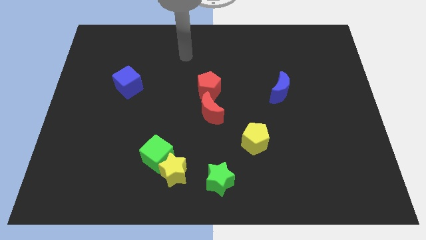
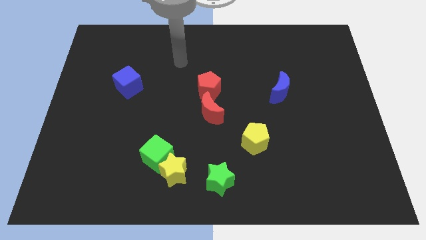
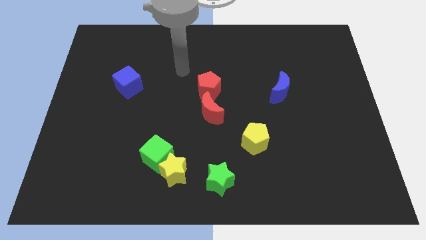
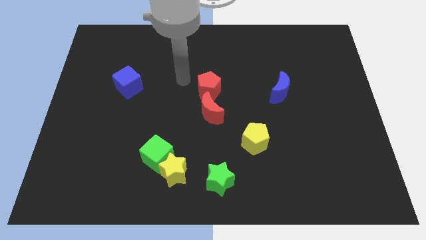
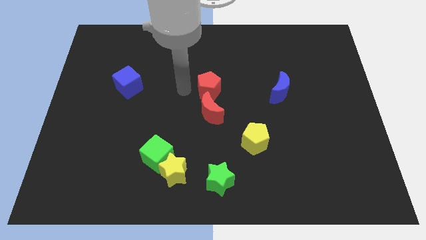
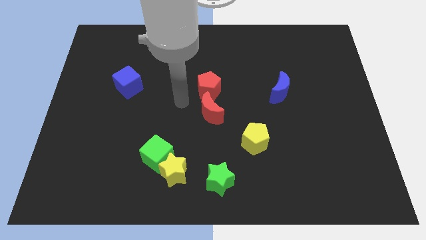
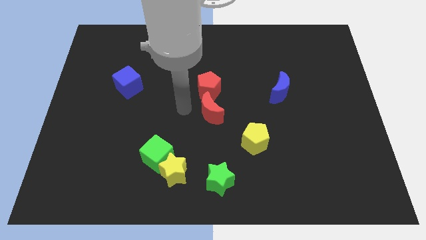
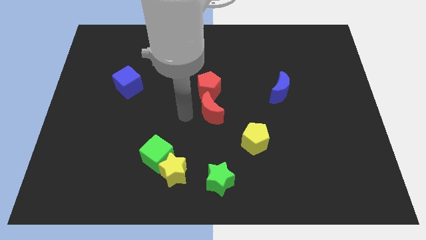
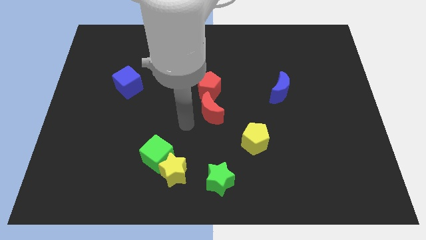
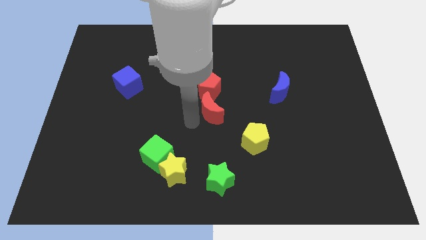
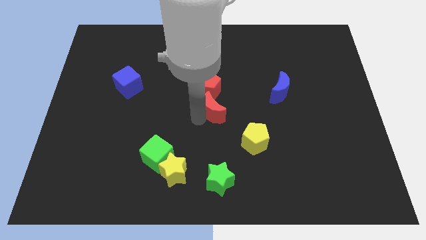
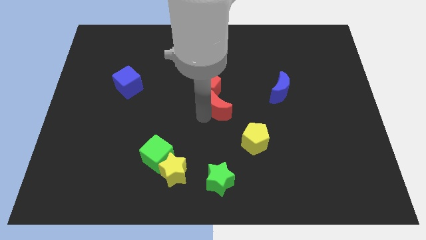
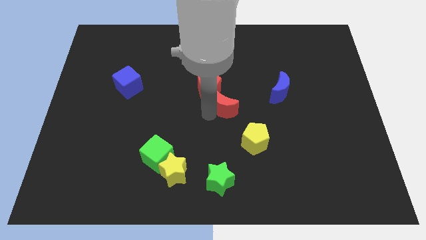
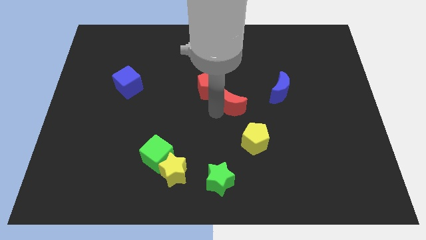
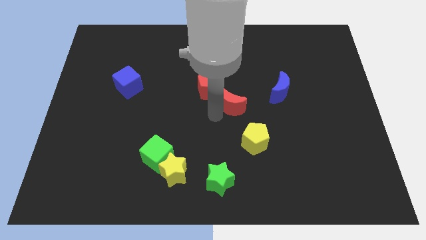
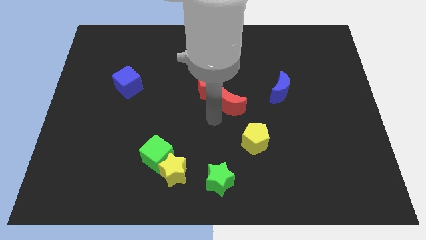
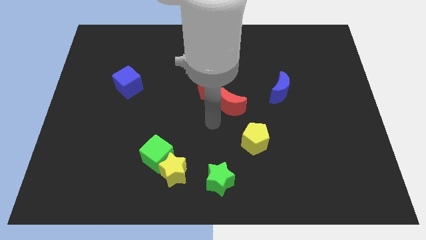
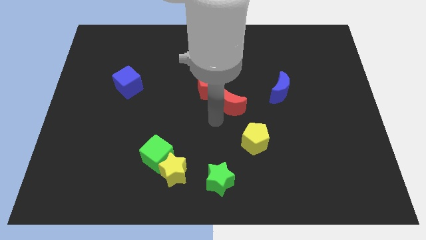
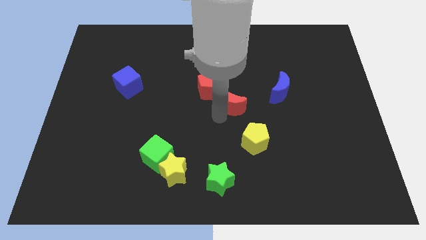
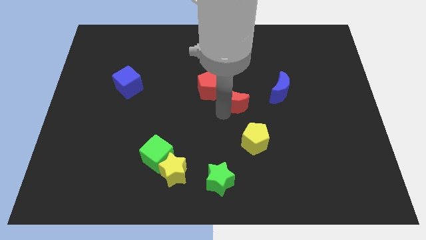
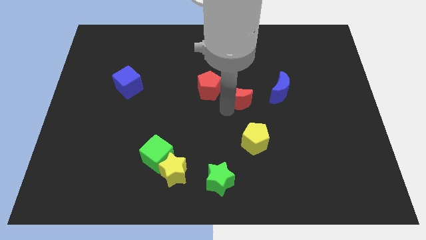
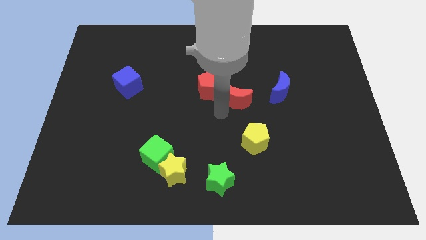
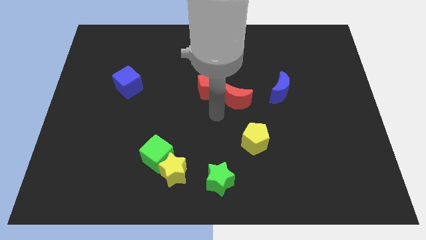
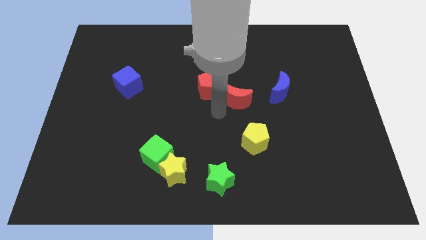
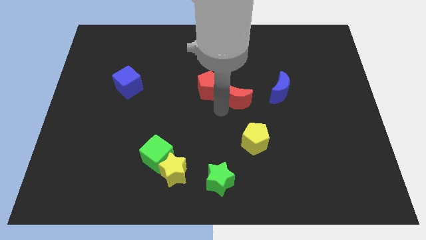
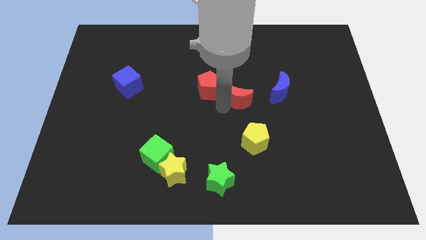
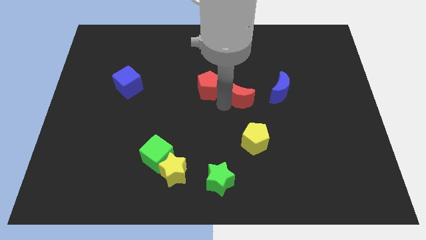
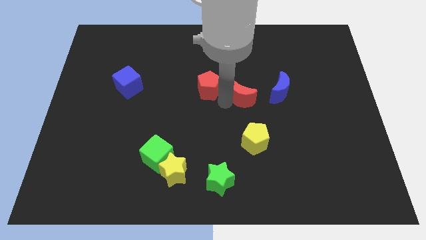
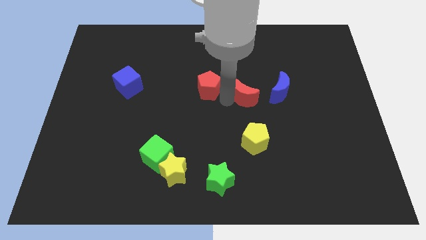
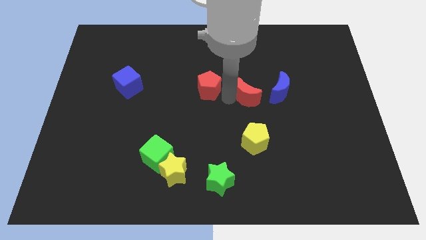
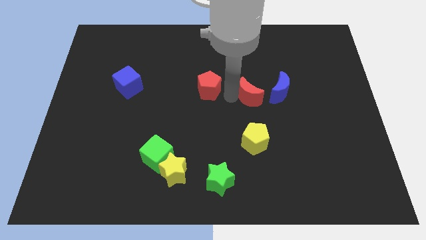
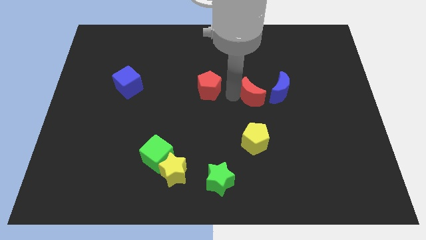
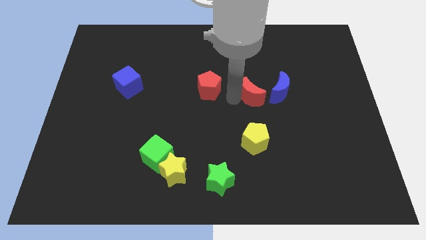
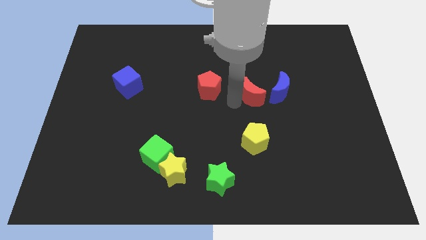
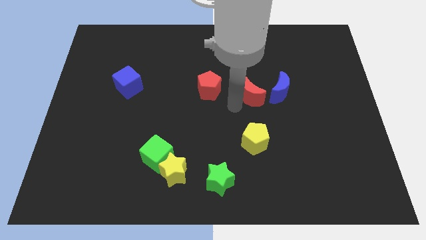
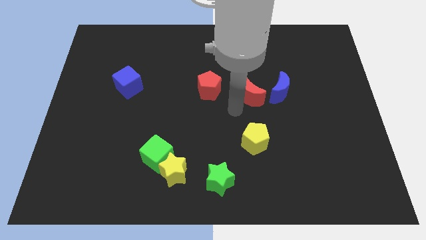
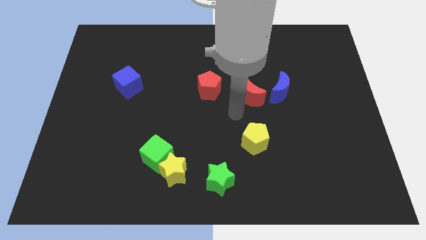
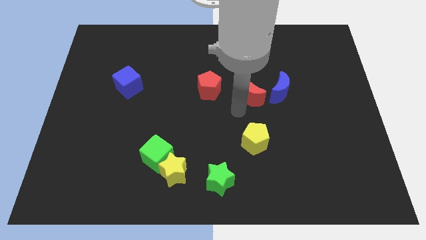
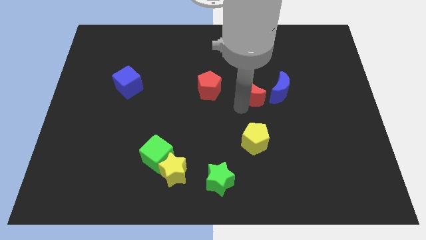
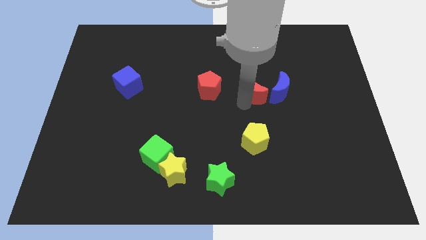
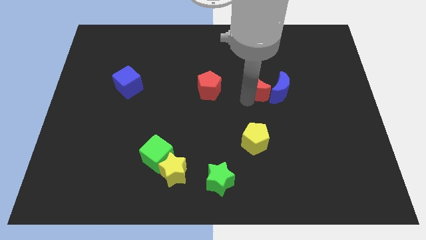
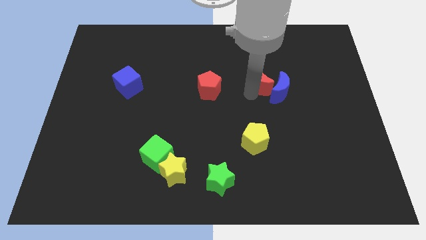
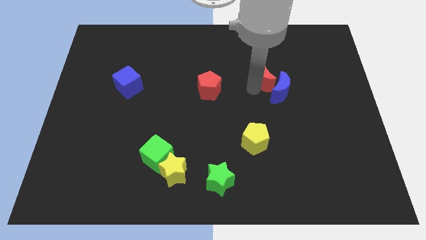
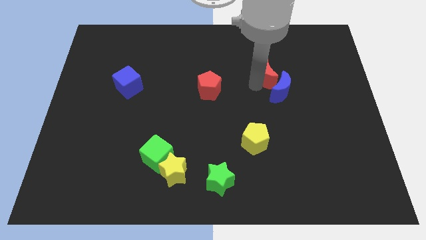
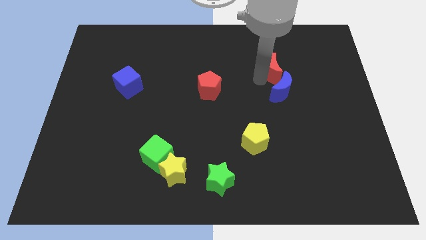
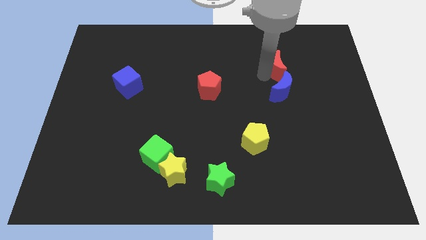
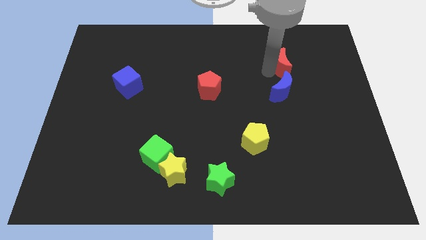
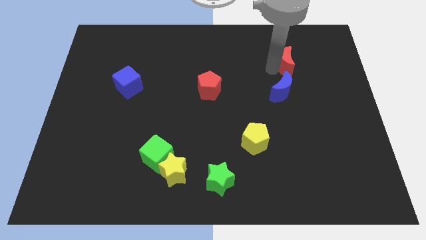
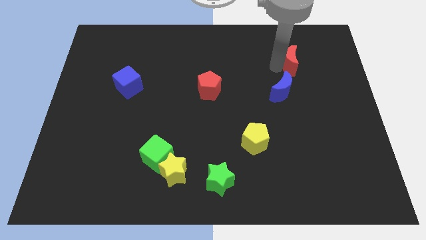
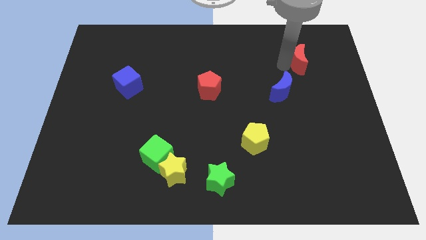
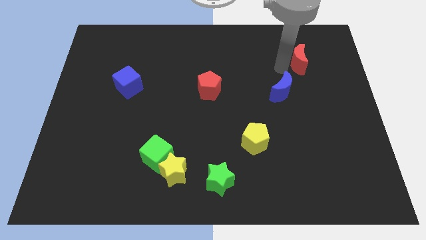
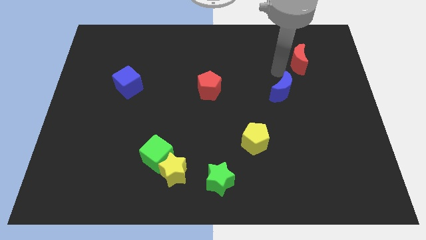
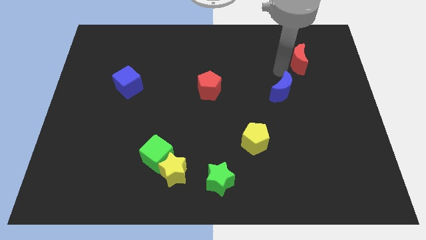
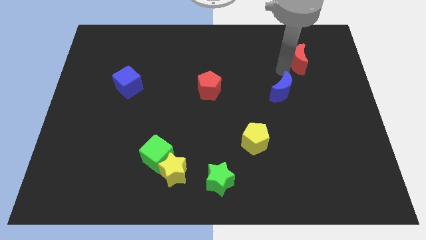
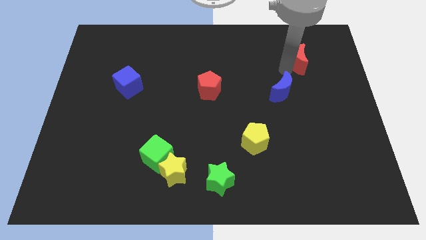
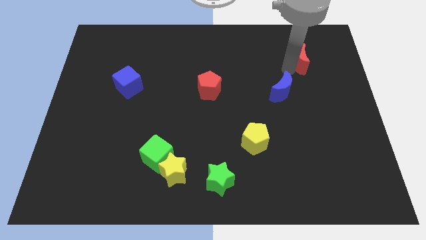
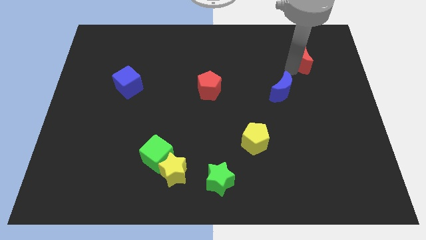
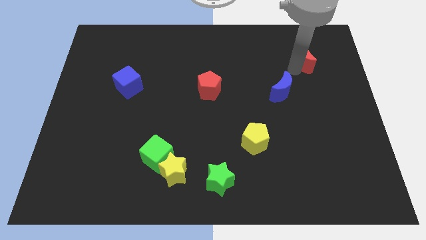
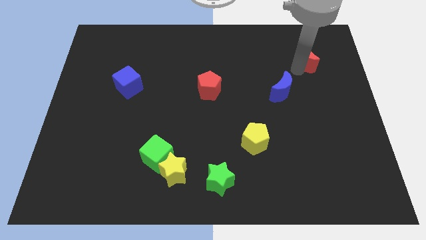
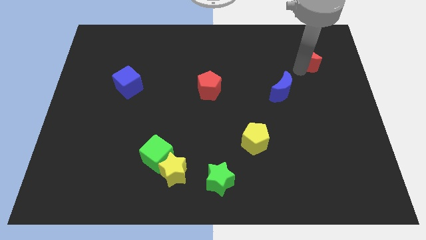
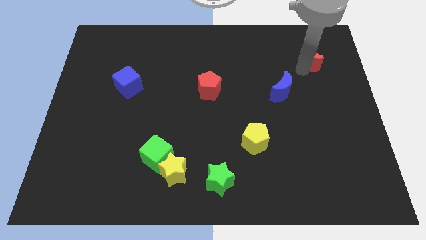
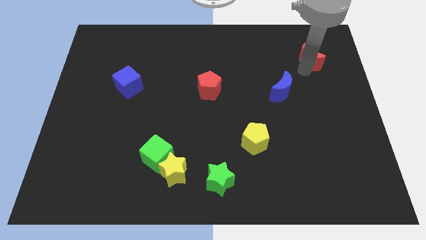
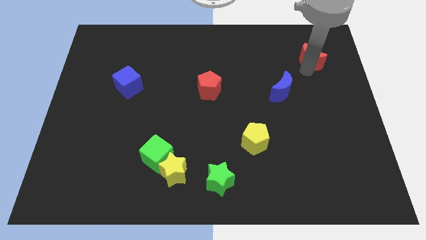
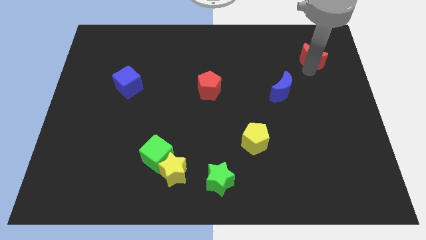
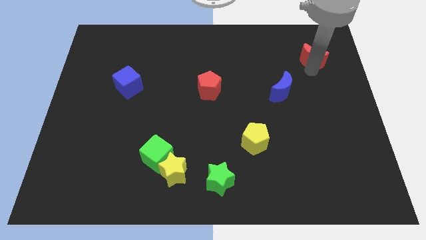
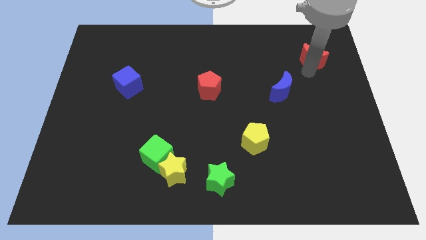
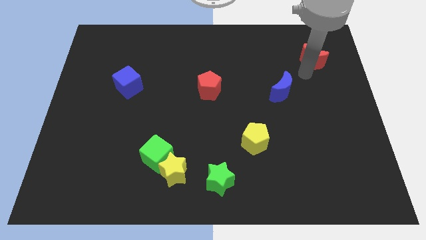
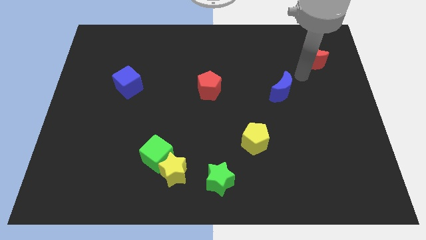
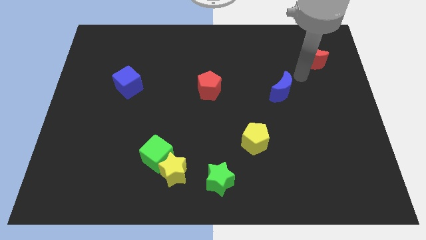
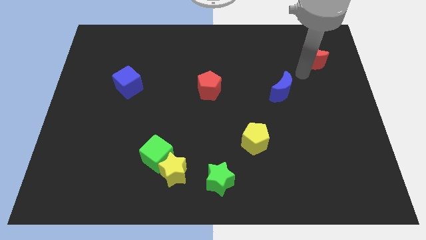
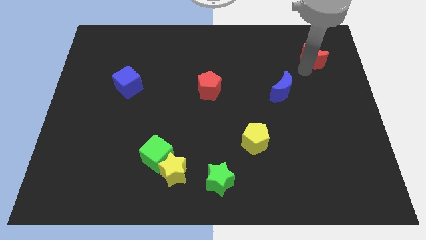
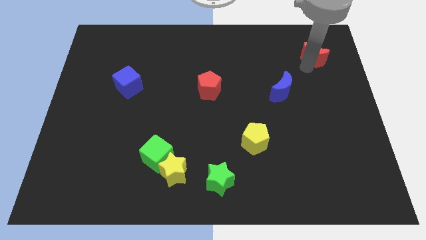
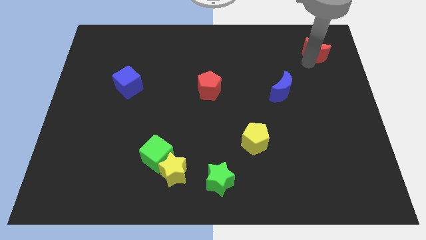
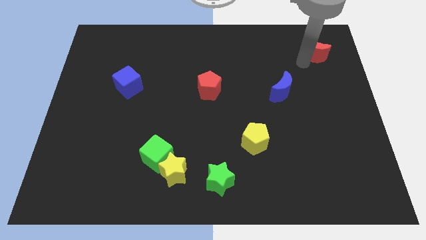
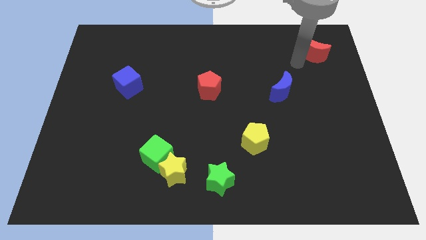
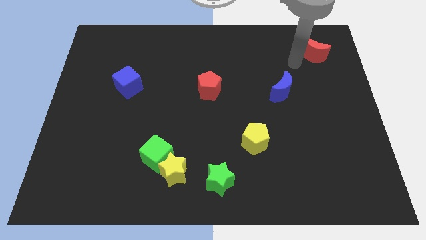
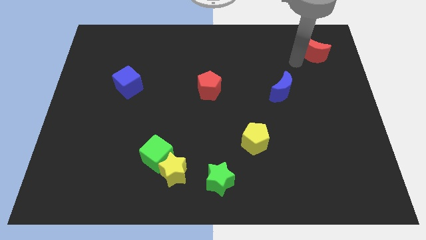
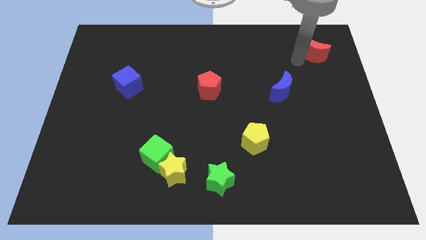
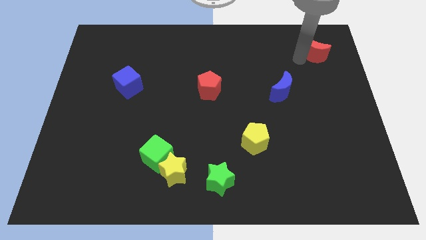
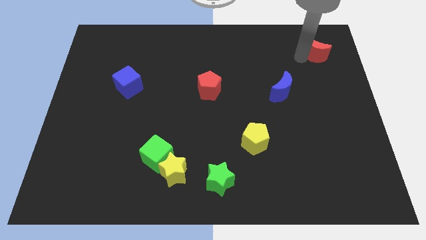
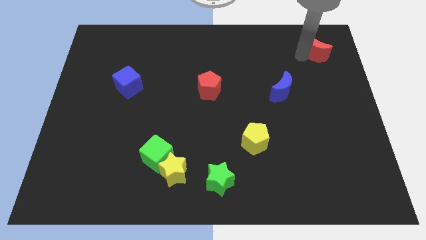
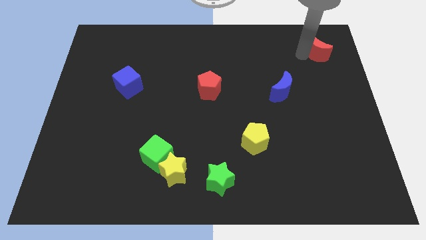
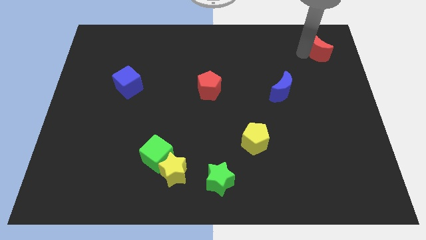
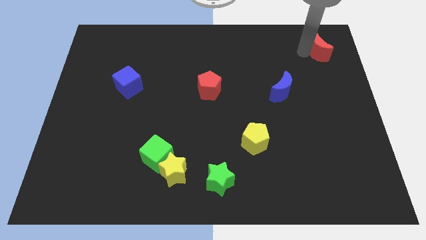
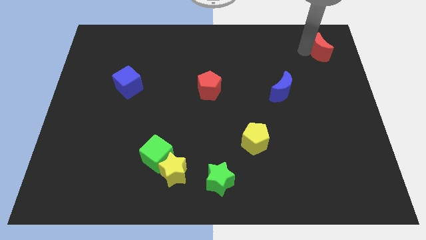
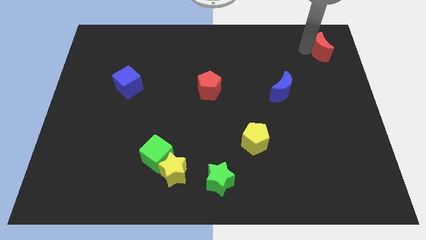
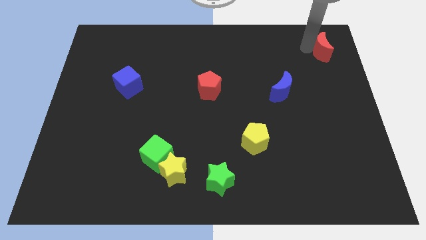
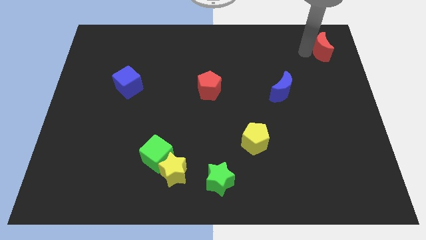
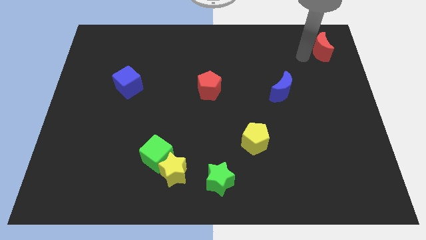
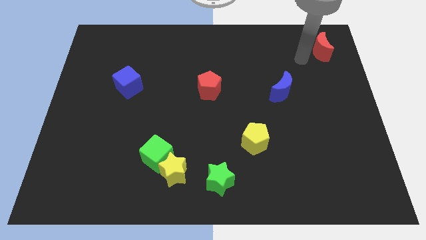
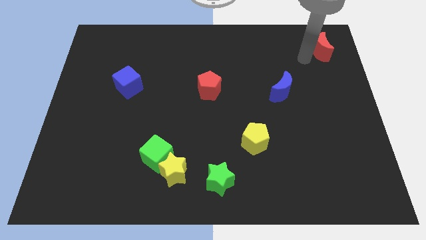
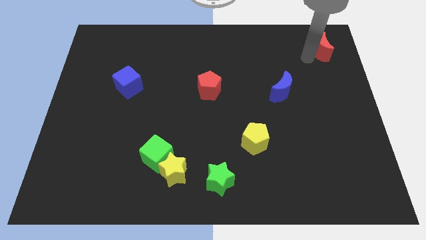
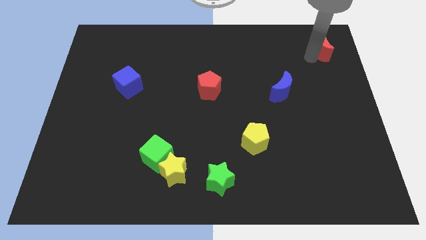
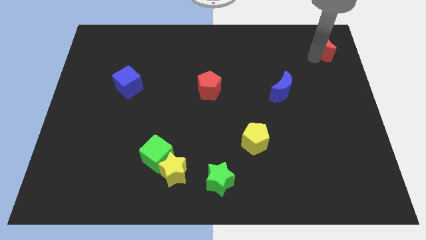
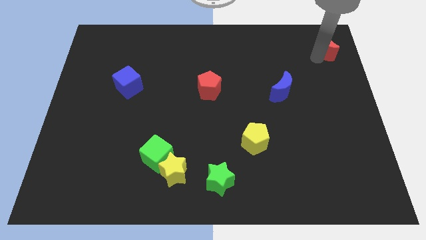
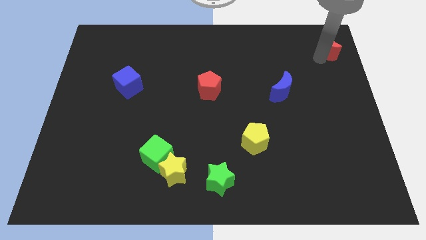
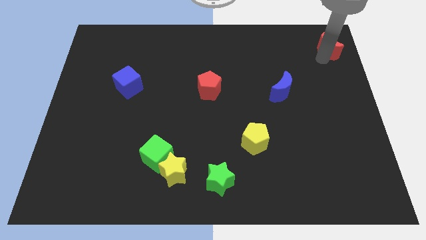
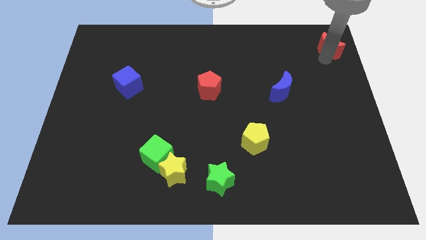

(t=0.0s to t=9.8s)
put the red moon to the upper right corner
